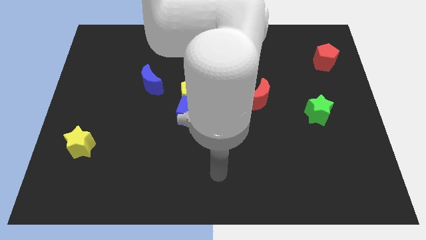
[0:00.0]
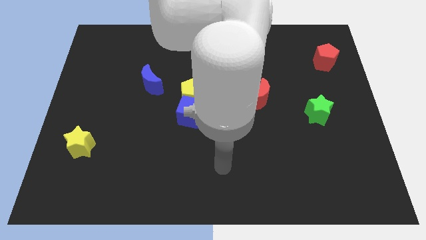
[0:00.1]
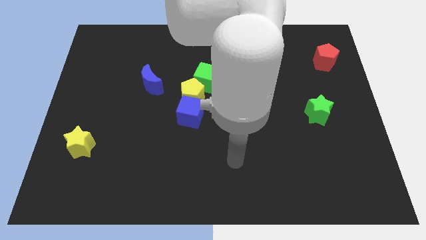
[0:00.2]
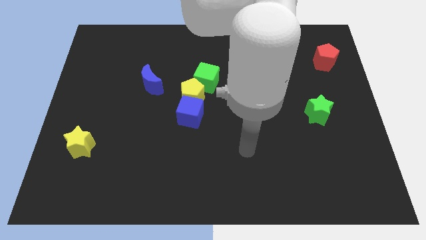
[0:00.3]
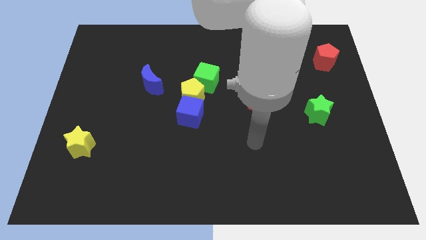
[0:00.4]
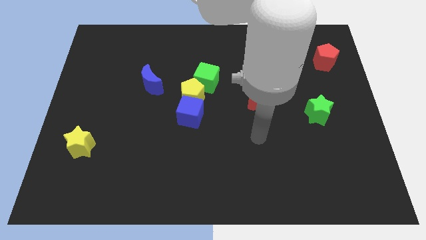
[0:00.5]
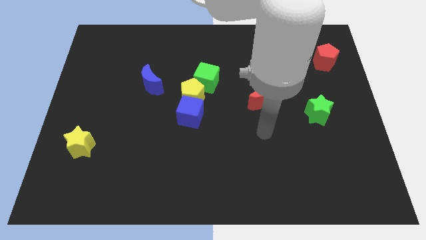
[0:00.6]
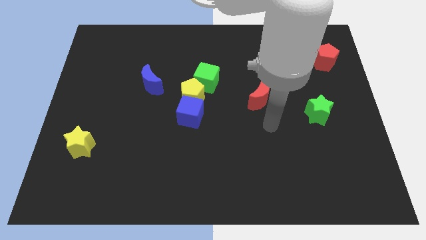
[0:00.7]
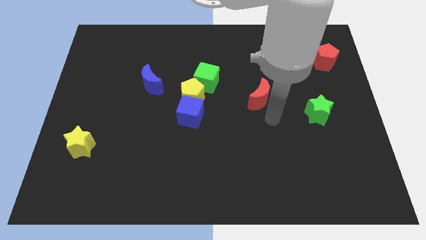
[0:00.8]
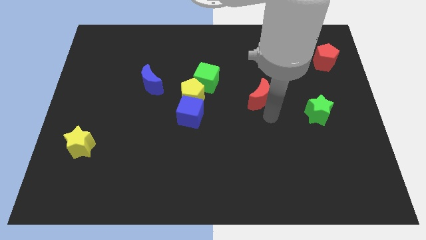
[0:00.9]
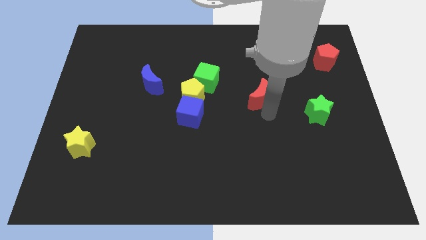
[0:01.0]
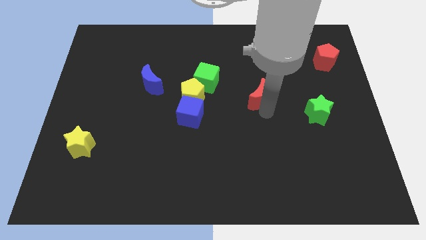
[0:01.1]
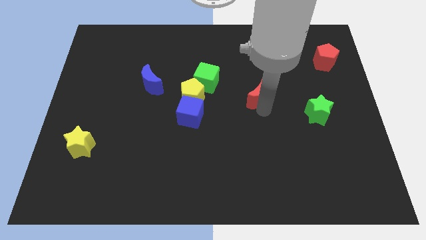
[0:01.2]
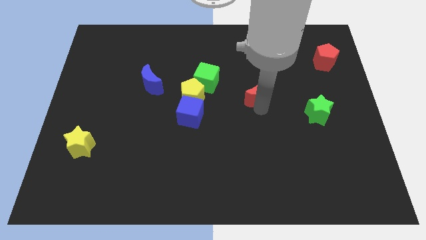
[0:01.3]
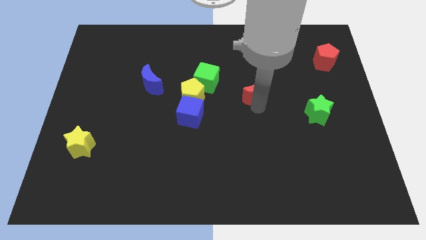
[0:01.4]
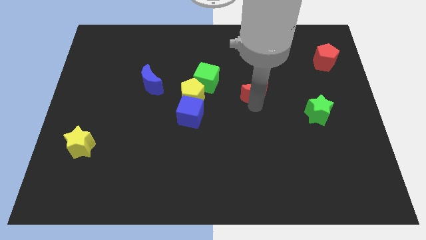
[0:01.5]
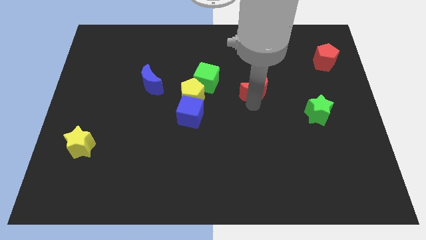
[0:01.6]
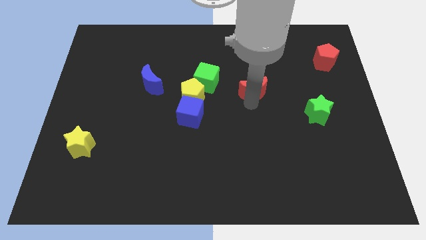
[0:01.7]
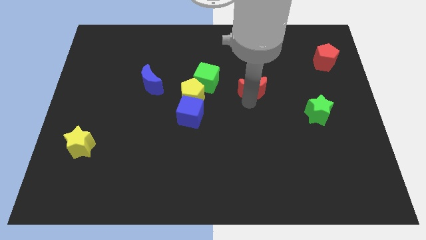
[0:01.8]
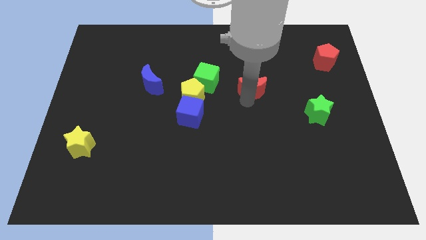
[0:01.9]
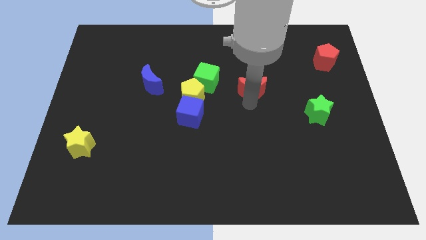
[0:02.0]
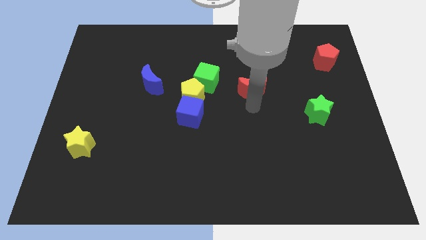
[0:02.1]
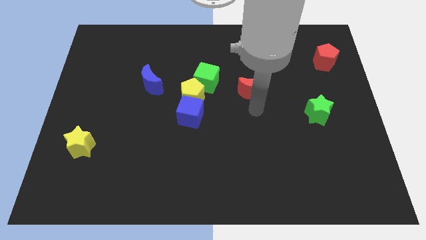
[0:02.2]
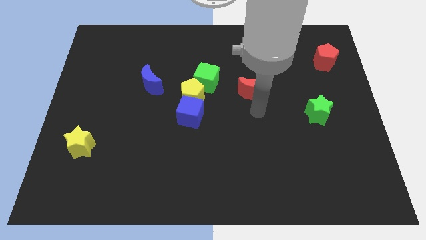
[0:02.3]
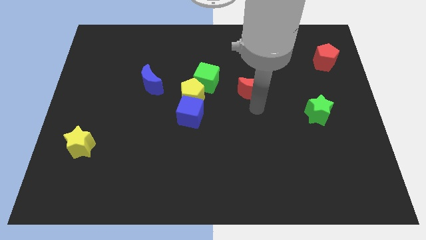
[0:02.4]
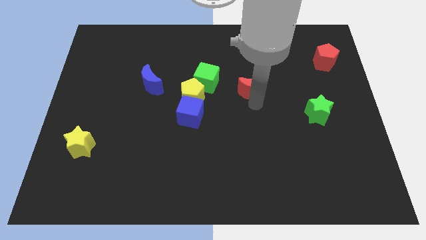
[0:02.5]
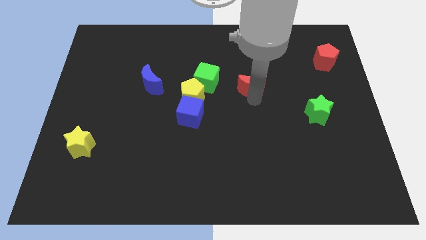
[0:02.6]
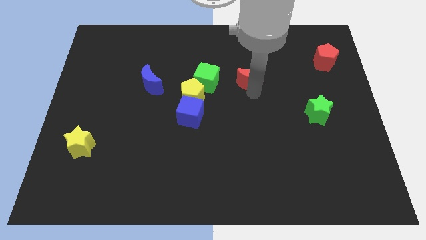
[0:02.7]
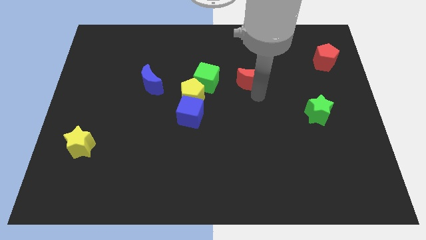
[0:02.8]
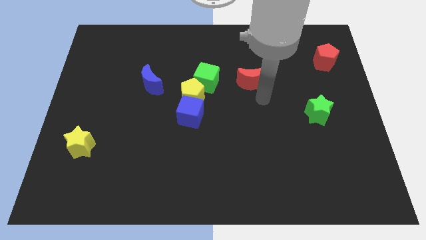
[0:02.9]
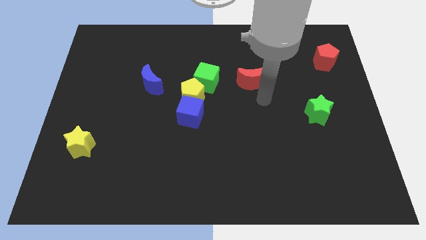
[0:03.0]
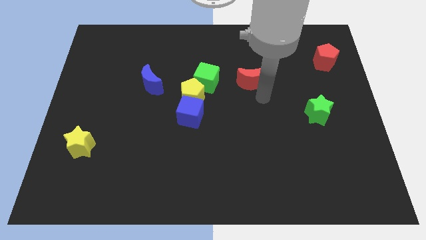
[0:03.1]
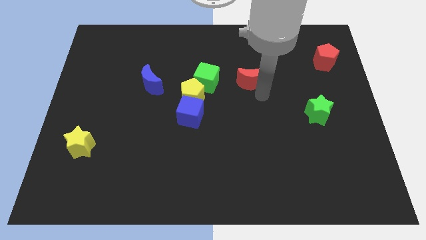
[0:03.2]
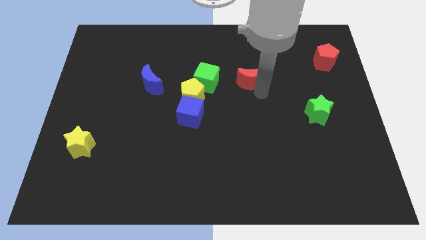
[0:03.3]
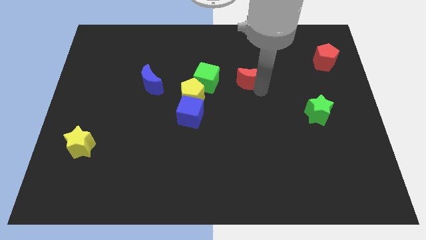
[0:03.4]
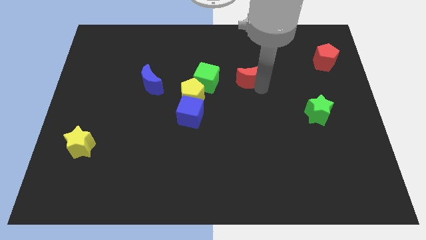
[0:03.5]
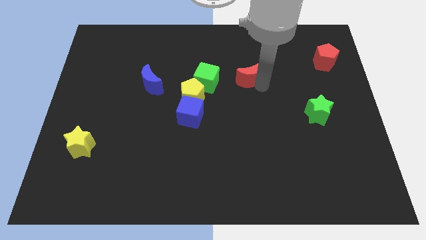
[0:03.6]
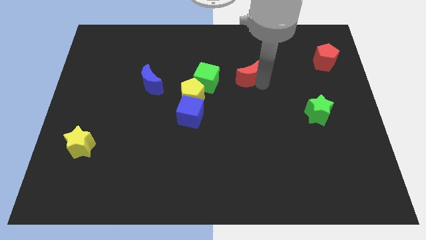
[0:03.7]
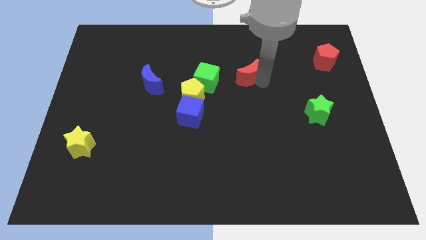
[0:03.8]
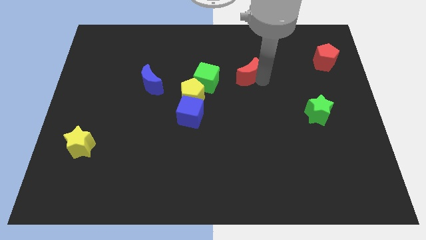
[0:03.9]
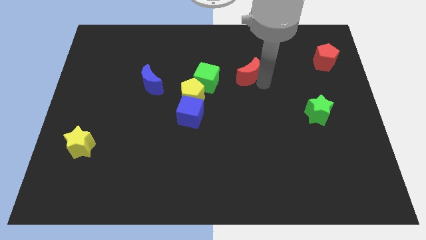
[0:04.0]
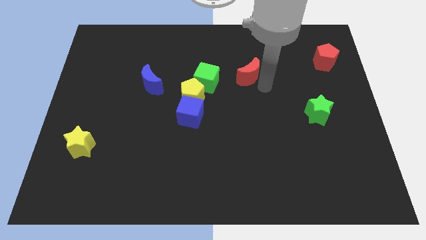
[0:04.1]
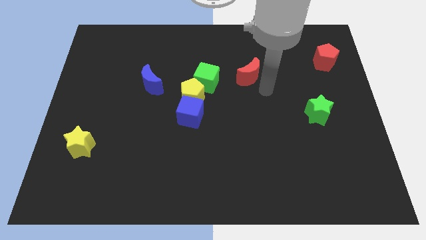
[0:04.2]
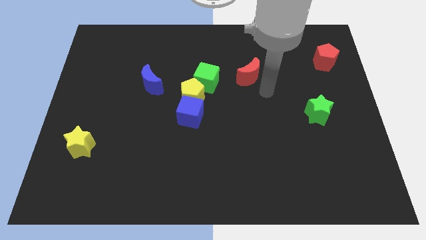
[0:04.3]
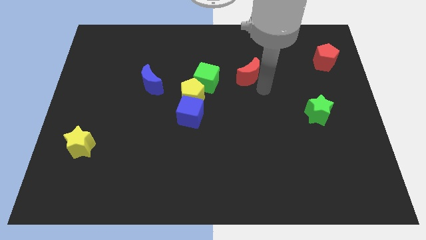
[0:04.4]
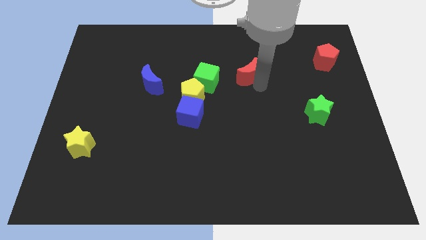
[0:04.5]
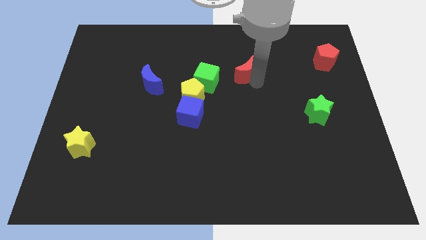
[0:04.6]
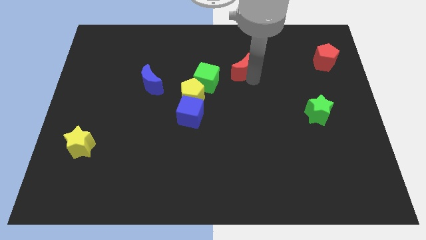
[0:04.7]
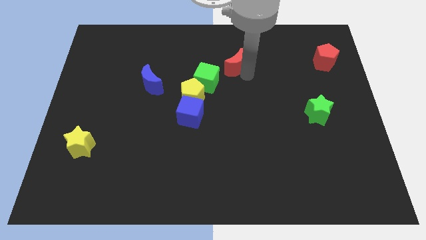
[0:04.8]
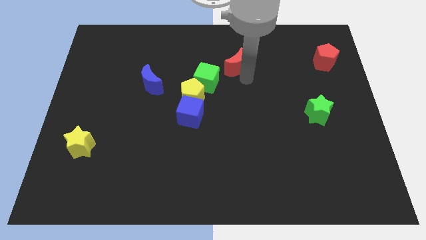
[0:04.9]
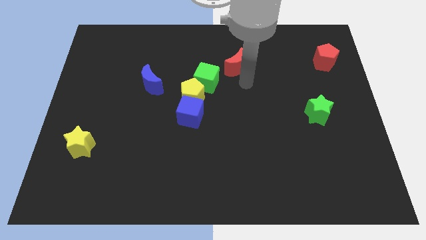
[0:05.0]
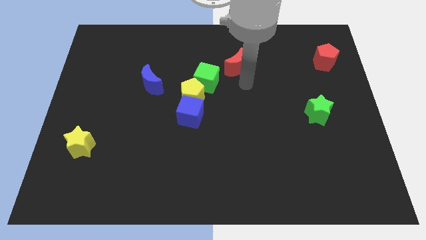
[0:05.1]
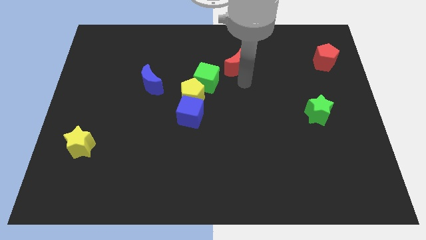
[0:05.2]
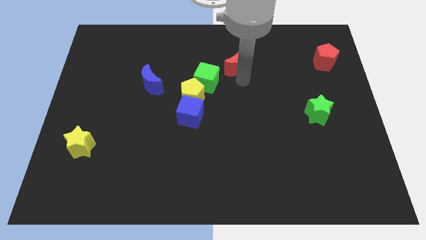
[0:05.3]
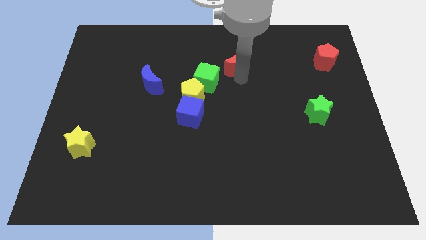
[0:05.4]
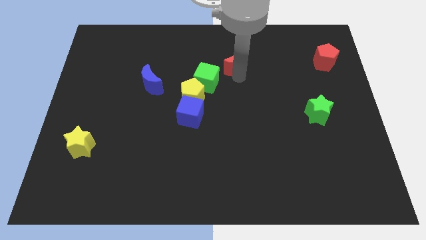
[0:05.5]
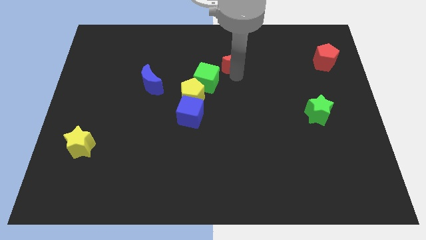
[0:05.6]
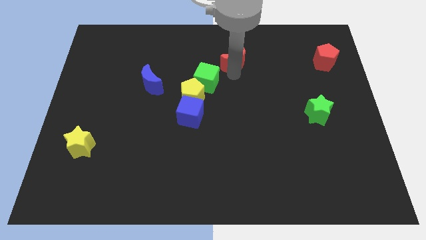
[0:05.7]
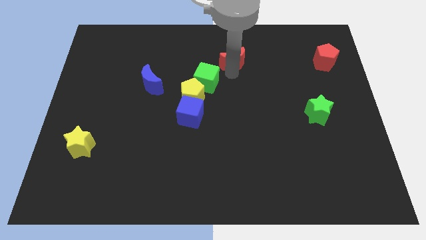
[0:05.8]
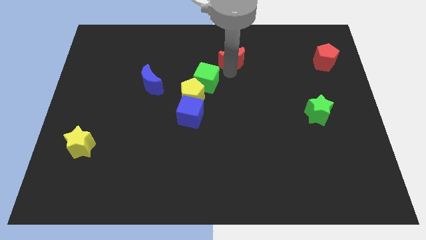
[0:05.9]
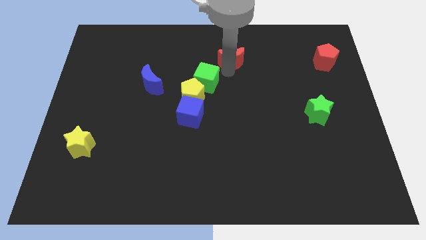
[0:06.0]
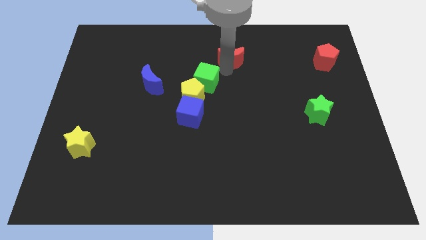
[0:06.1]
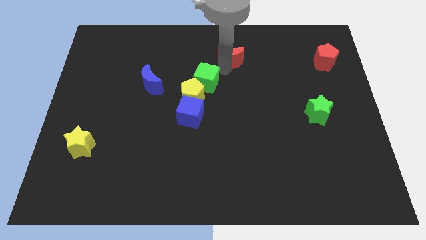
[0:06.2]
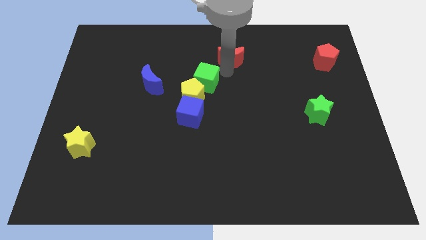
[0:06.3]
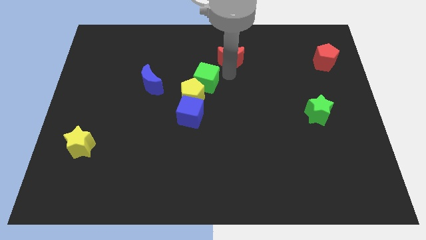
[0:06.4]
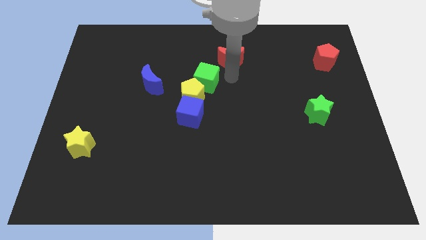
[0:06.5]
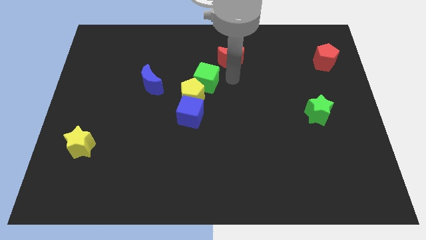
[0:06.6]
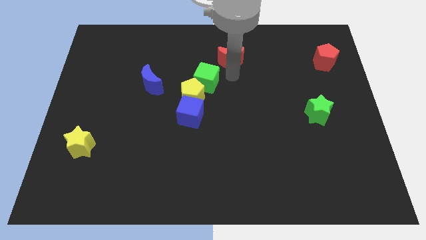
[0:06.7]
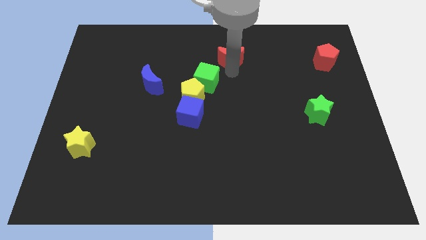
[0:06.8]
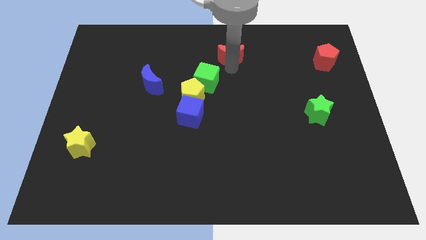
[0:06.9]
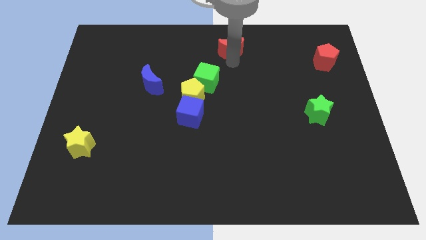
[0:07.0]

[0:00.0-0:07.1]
slide the red moon to the top
